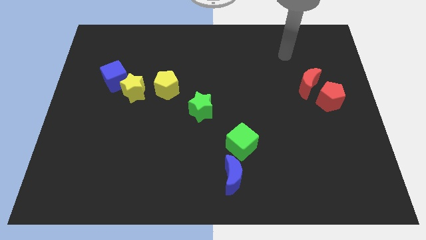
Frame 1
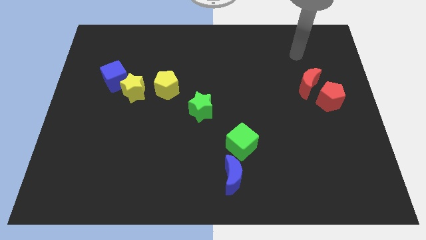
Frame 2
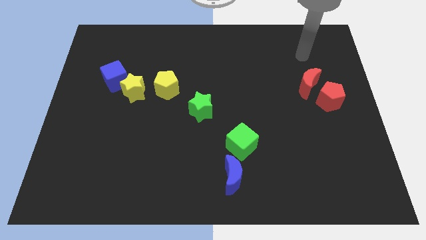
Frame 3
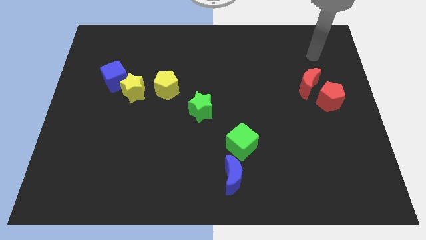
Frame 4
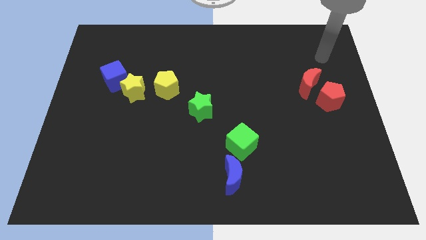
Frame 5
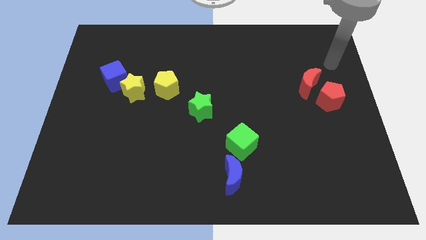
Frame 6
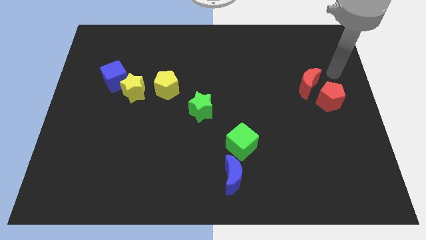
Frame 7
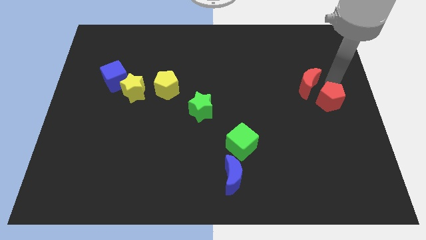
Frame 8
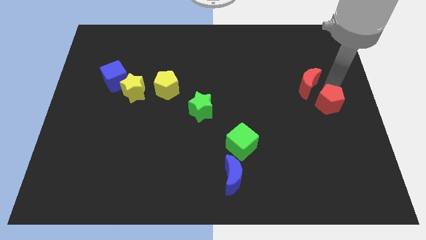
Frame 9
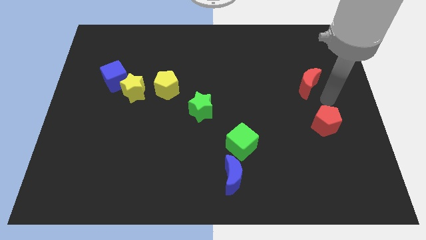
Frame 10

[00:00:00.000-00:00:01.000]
pull the red moon apart from the red pentagon

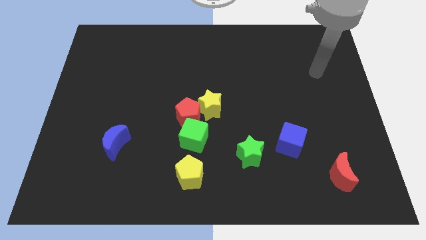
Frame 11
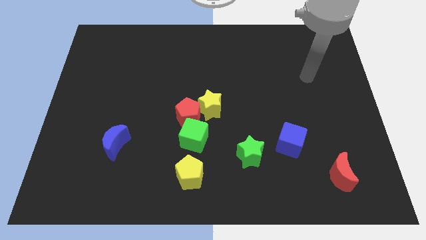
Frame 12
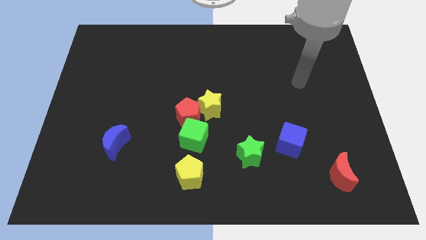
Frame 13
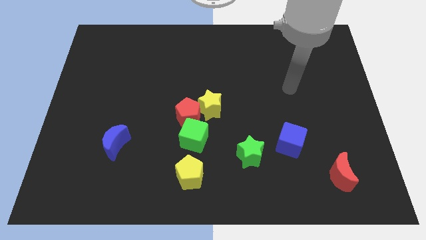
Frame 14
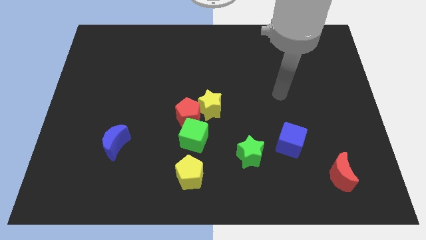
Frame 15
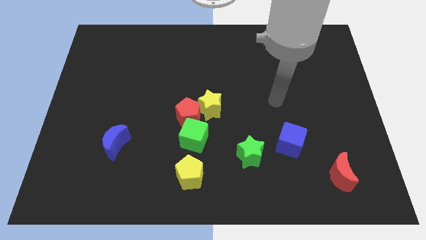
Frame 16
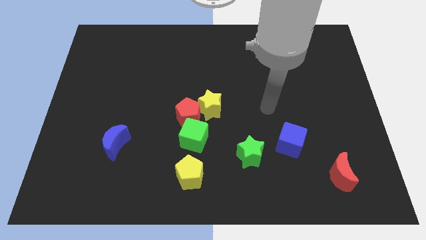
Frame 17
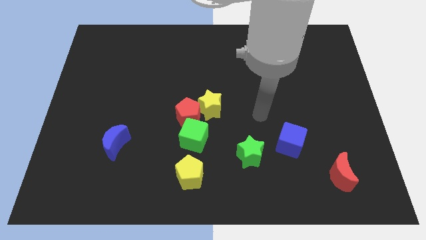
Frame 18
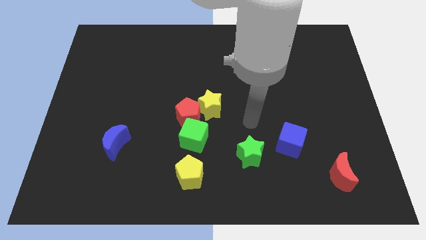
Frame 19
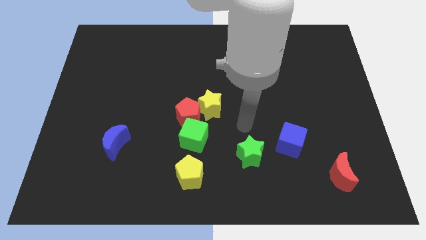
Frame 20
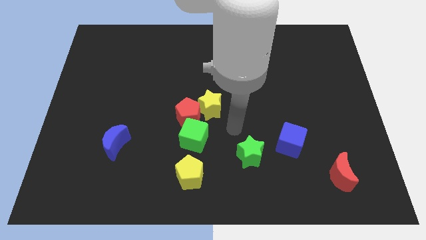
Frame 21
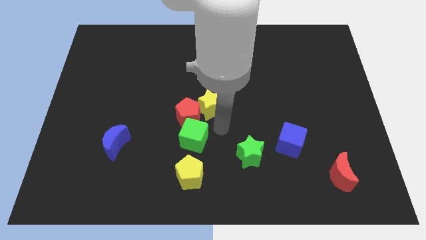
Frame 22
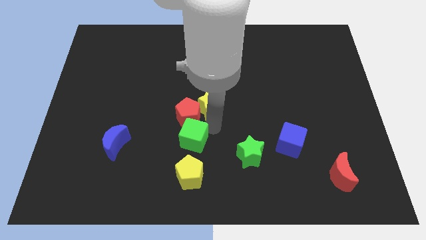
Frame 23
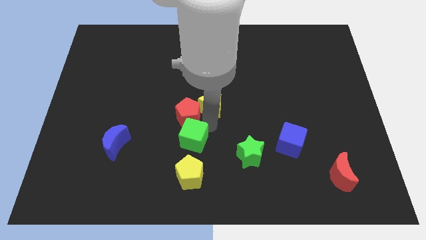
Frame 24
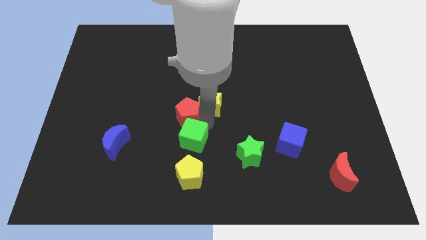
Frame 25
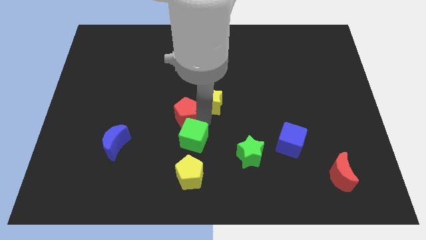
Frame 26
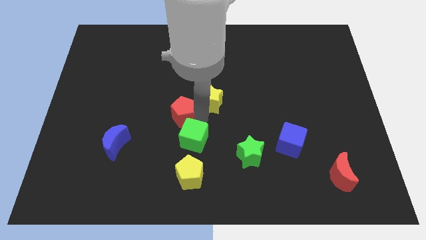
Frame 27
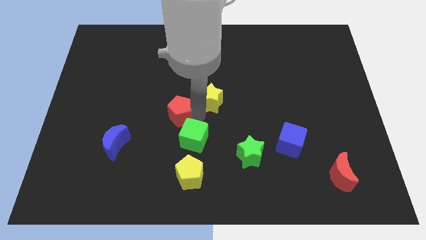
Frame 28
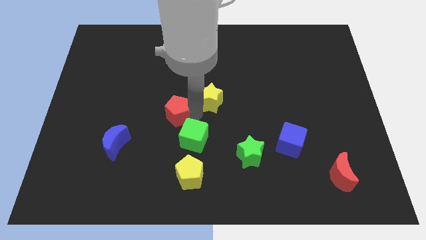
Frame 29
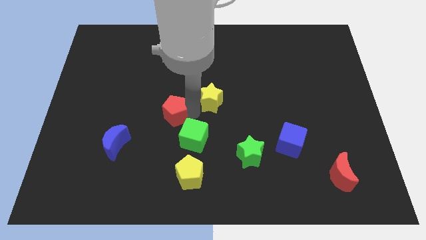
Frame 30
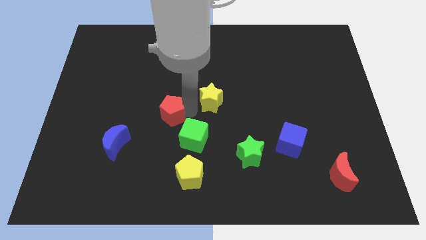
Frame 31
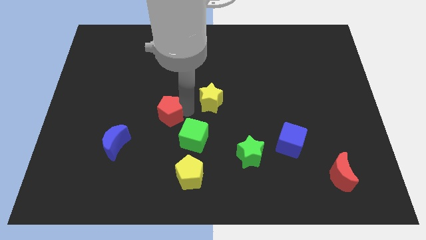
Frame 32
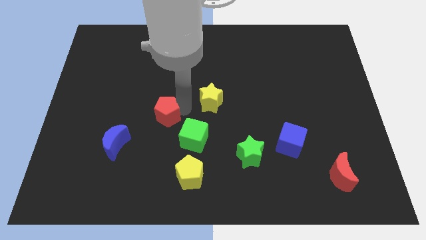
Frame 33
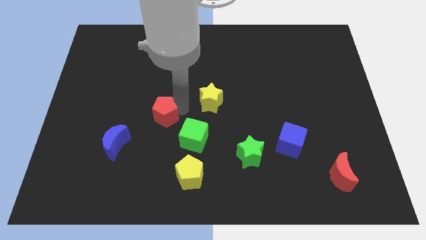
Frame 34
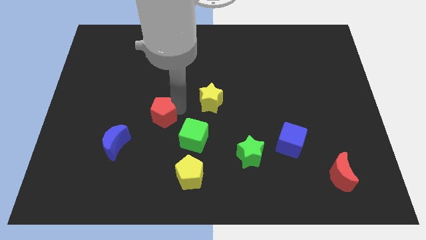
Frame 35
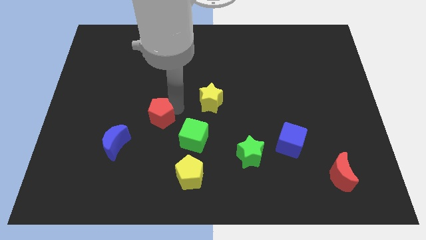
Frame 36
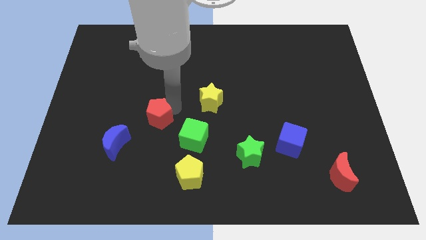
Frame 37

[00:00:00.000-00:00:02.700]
move the red pentagon away from the yellow star and green cube

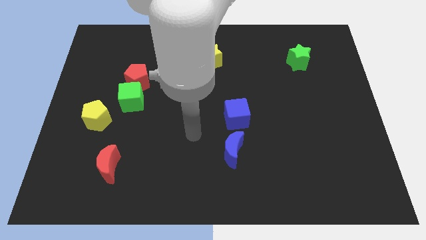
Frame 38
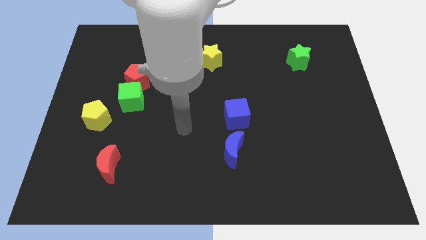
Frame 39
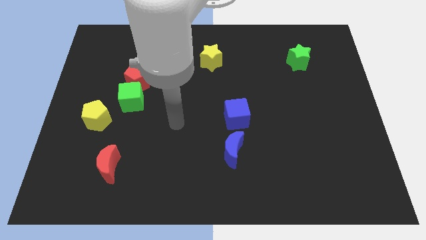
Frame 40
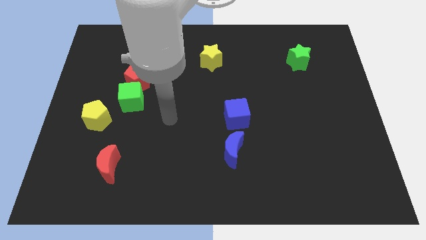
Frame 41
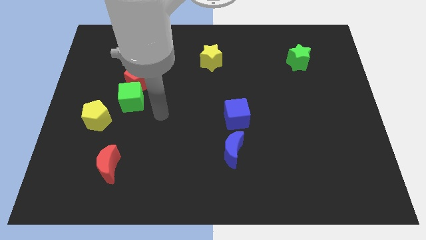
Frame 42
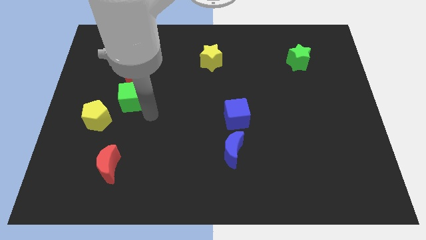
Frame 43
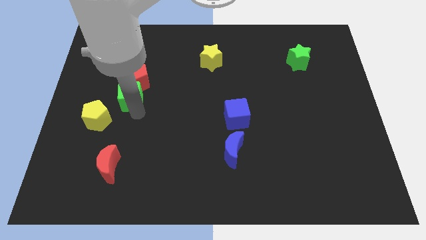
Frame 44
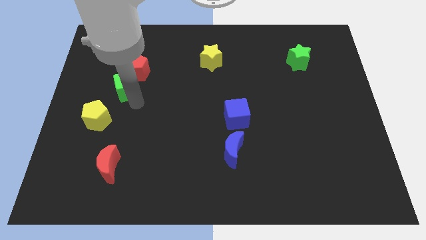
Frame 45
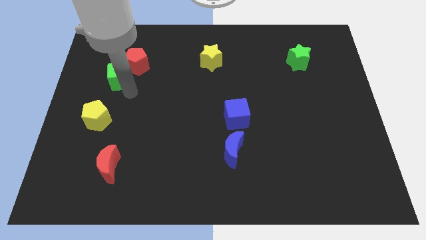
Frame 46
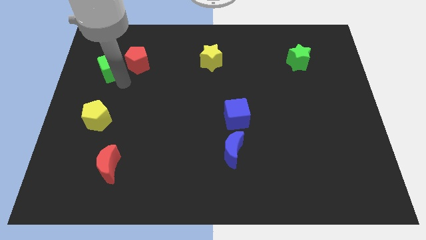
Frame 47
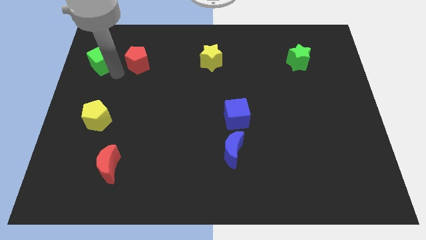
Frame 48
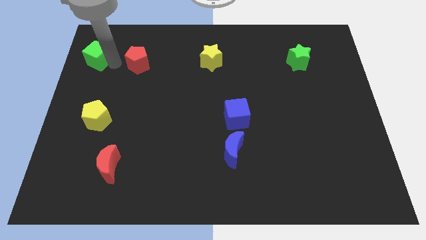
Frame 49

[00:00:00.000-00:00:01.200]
move the red pentagon away from the green cube

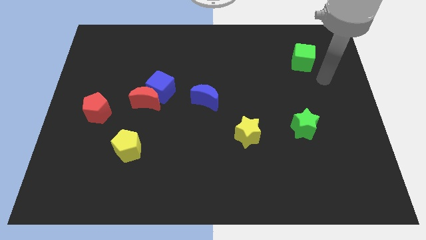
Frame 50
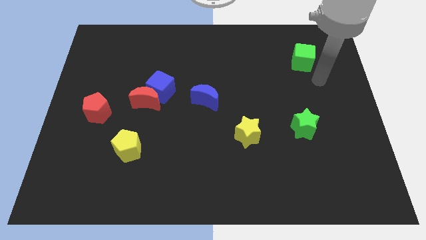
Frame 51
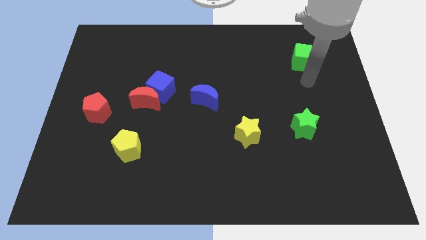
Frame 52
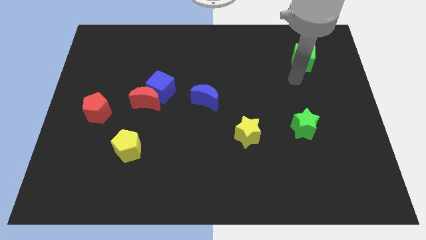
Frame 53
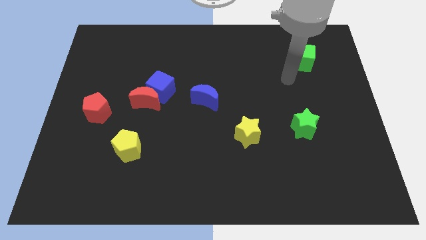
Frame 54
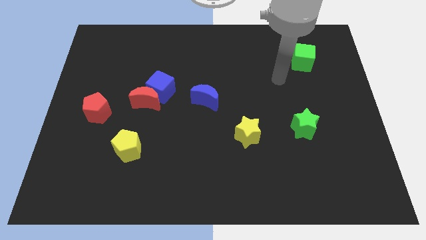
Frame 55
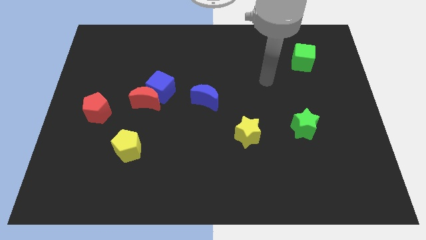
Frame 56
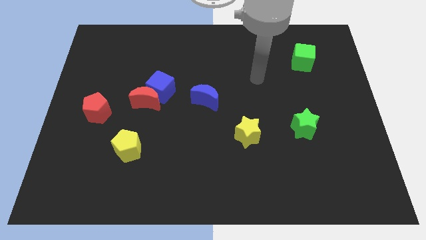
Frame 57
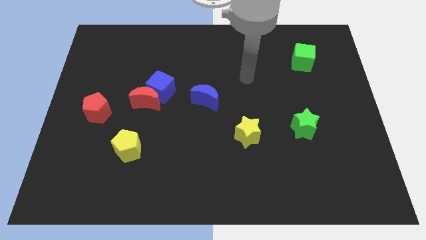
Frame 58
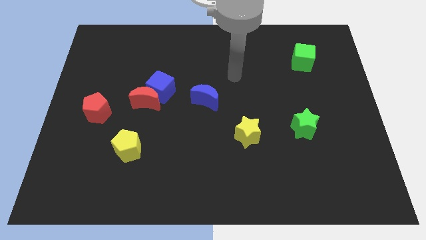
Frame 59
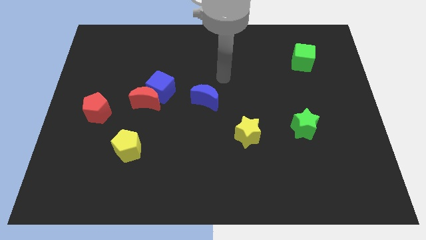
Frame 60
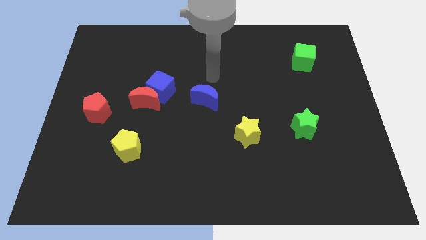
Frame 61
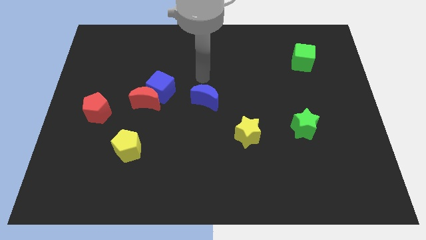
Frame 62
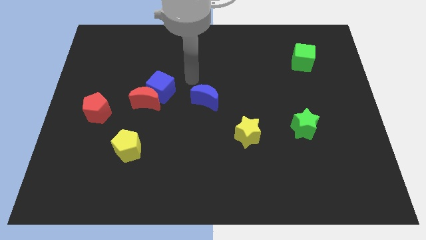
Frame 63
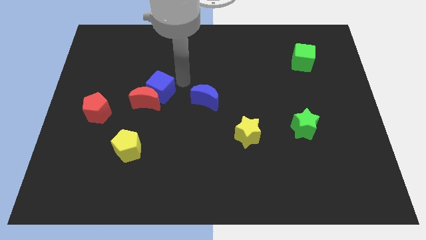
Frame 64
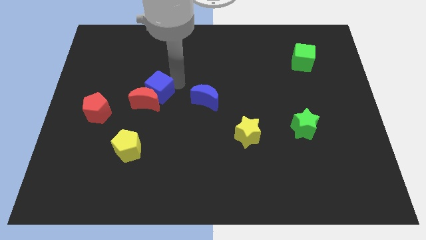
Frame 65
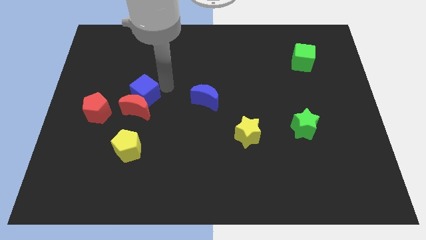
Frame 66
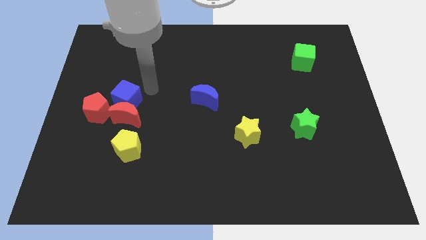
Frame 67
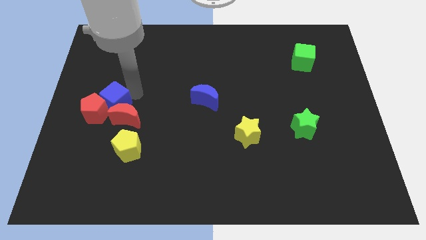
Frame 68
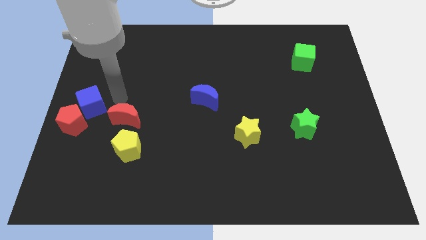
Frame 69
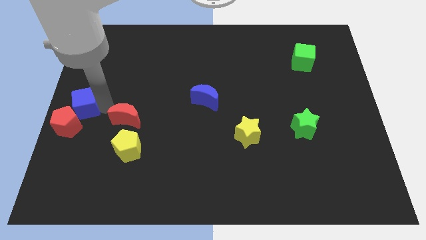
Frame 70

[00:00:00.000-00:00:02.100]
separate the red moon from the blue cube

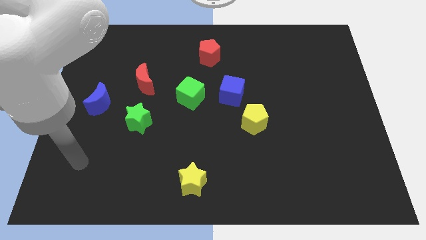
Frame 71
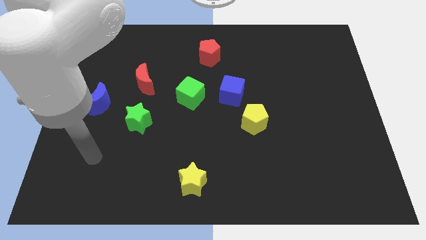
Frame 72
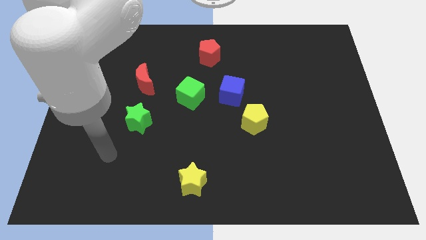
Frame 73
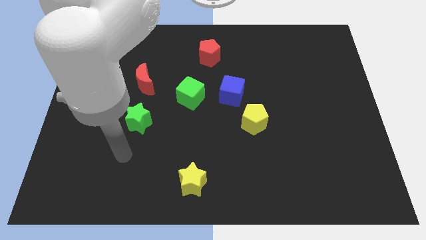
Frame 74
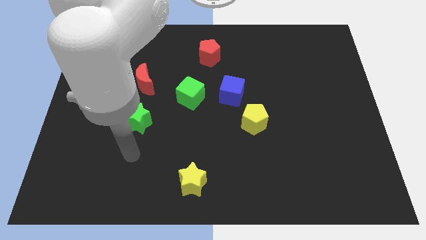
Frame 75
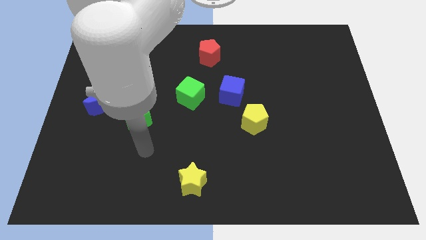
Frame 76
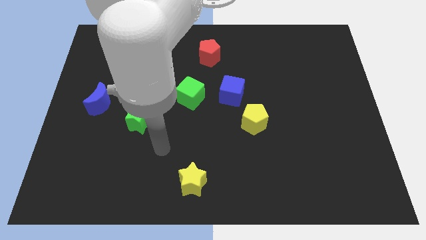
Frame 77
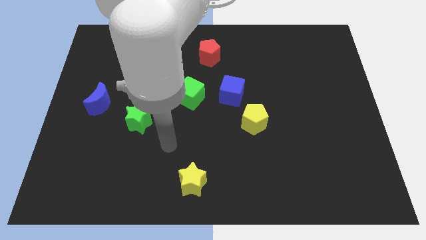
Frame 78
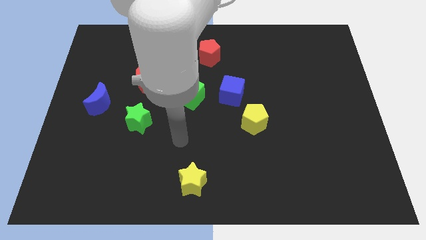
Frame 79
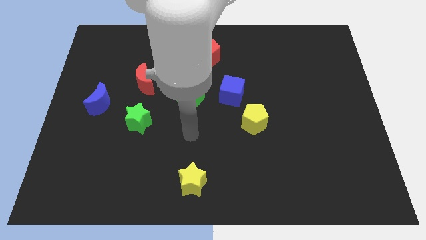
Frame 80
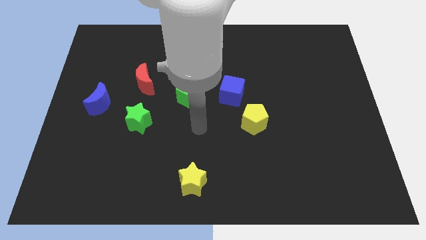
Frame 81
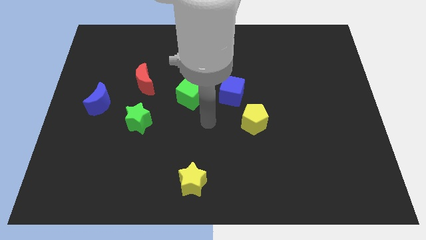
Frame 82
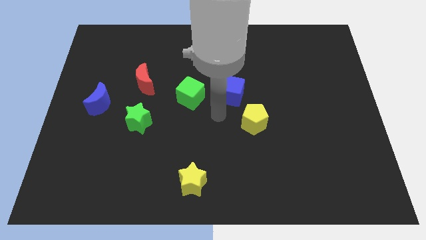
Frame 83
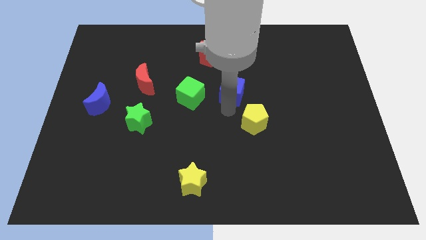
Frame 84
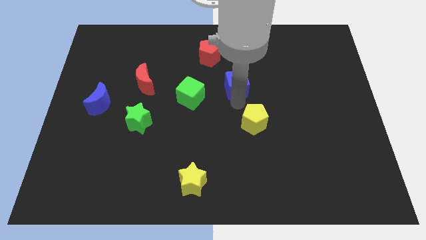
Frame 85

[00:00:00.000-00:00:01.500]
separate the yellow pentagon from the blue cube

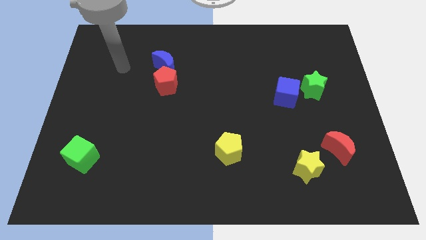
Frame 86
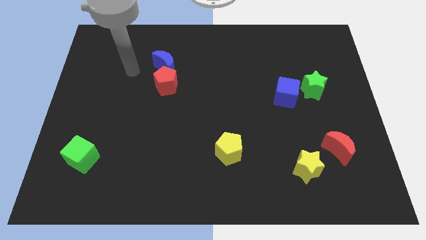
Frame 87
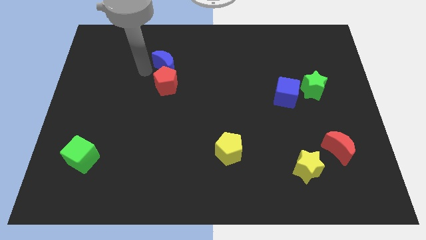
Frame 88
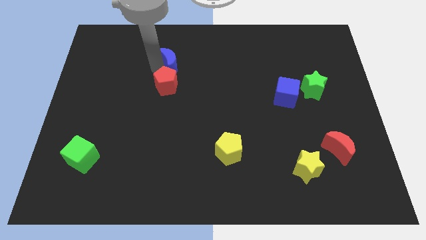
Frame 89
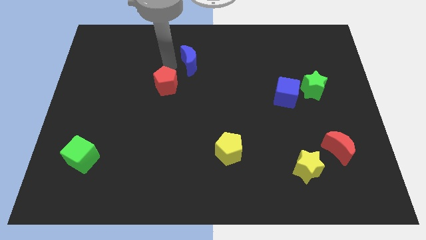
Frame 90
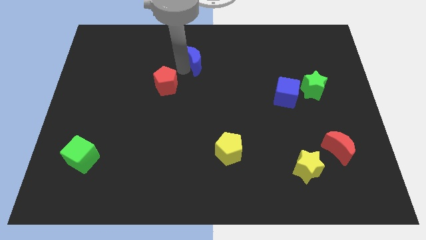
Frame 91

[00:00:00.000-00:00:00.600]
move the red pentagon away from the blue moon

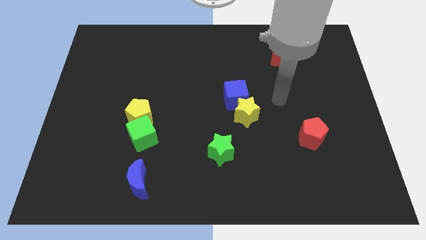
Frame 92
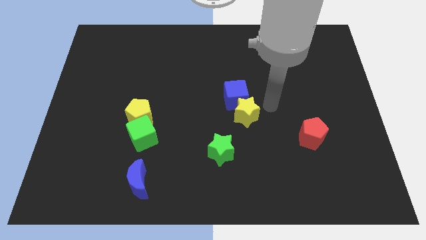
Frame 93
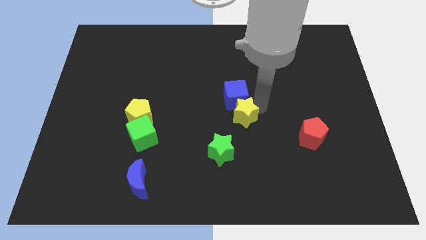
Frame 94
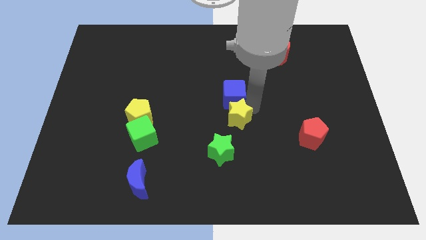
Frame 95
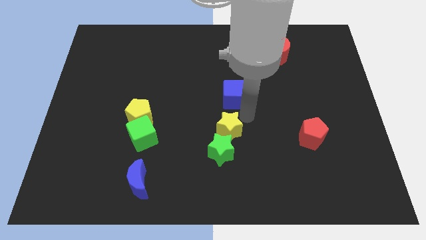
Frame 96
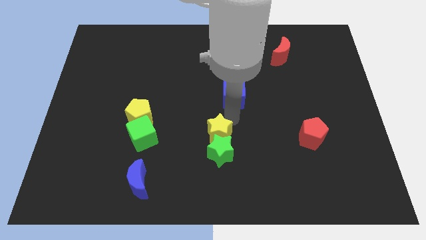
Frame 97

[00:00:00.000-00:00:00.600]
move the blue cube away from the yellow star
